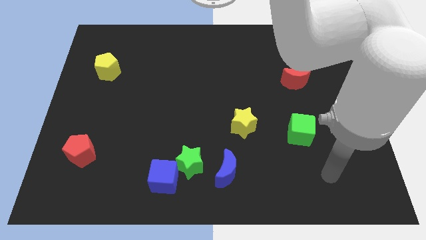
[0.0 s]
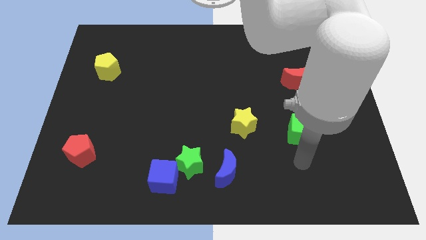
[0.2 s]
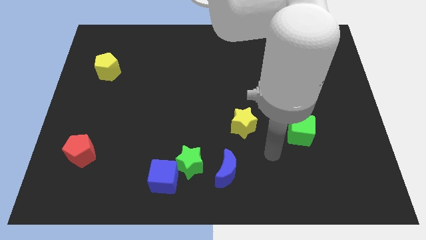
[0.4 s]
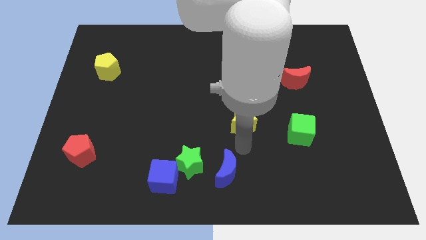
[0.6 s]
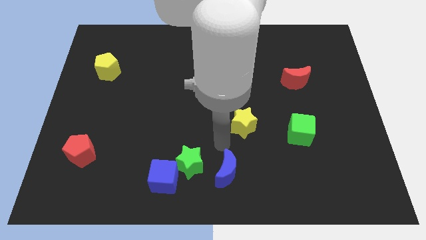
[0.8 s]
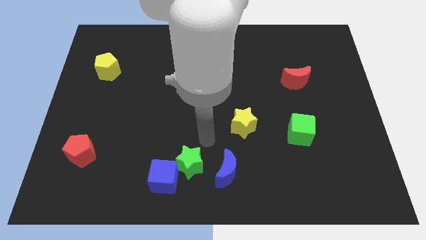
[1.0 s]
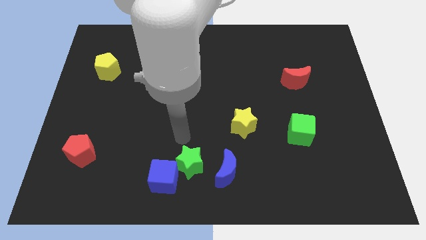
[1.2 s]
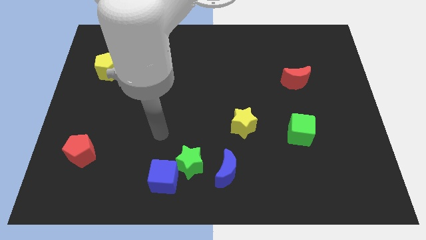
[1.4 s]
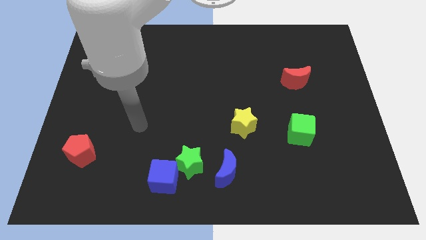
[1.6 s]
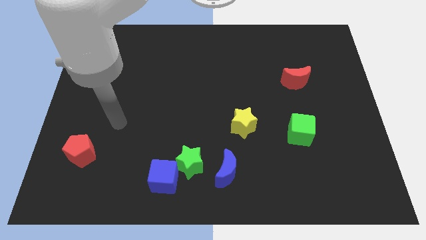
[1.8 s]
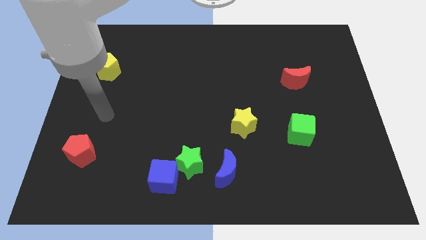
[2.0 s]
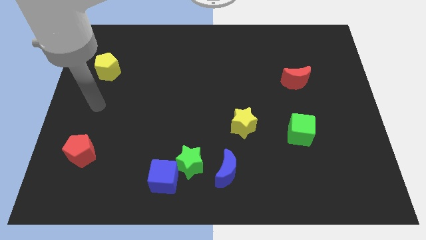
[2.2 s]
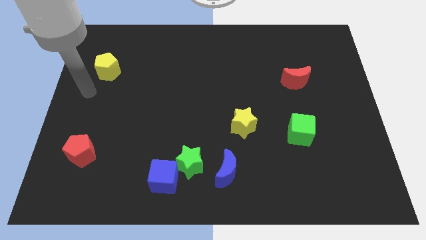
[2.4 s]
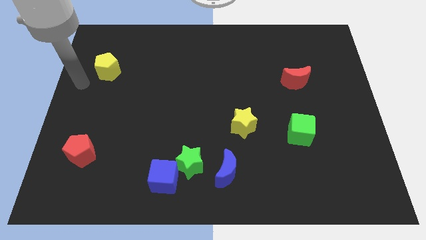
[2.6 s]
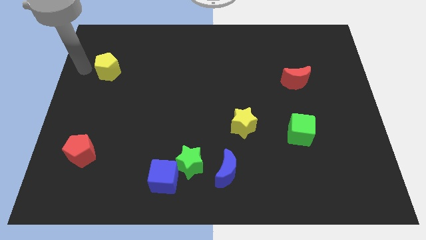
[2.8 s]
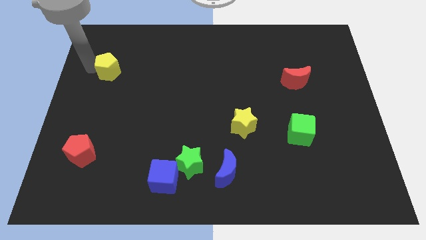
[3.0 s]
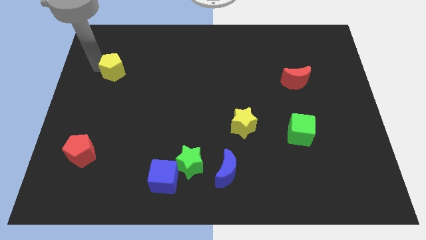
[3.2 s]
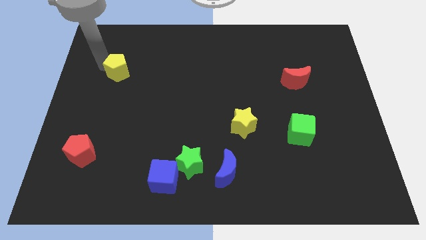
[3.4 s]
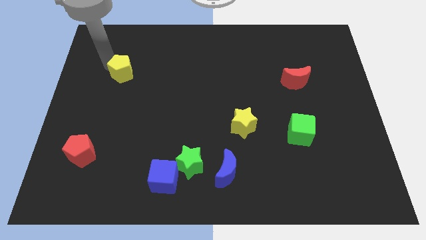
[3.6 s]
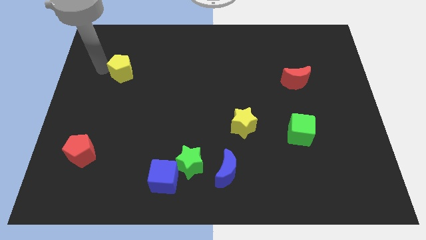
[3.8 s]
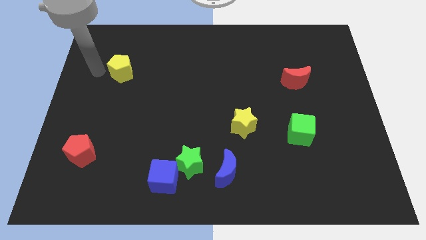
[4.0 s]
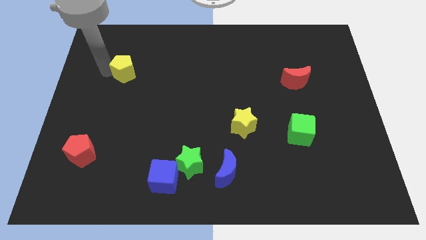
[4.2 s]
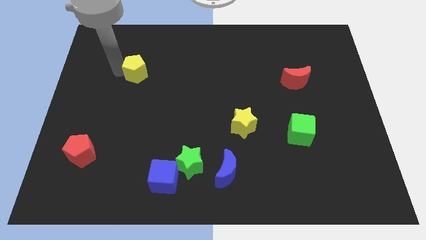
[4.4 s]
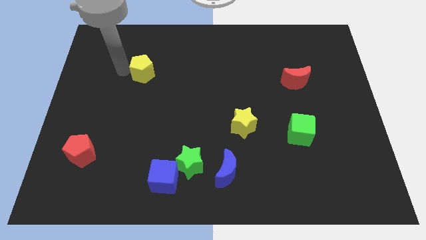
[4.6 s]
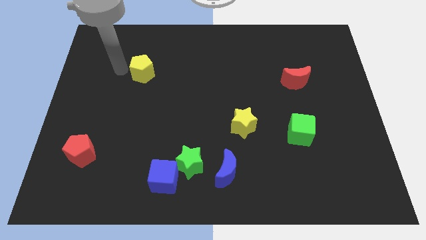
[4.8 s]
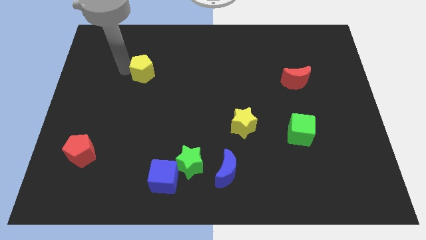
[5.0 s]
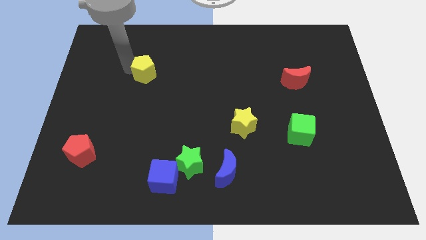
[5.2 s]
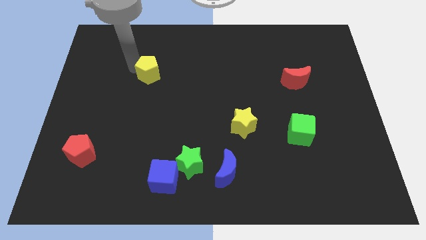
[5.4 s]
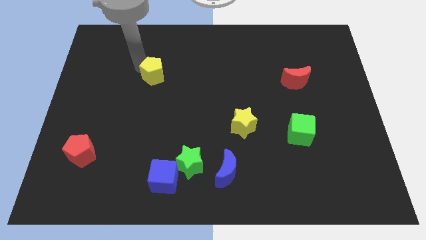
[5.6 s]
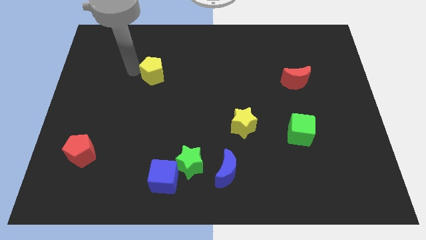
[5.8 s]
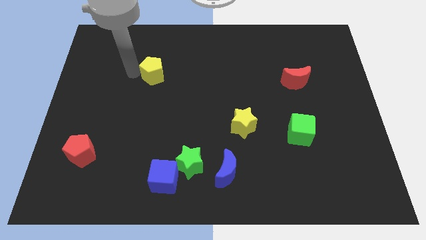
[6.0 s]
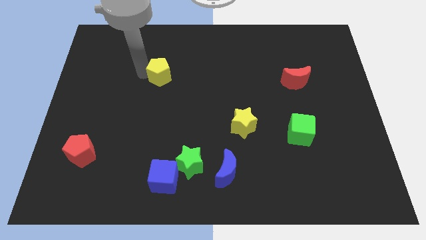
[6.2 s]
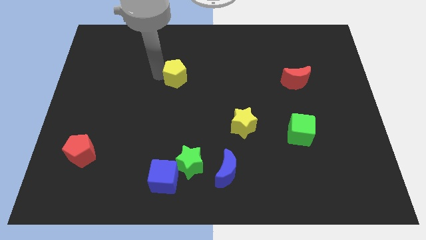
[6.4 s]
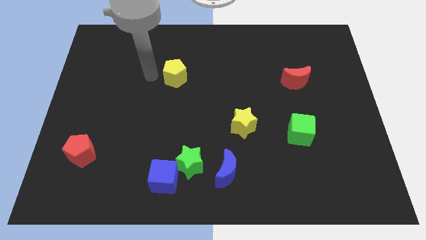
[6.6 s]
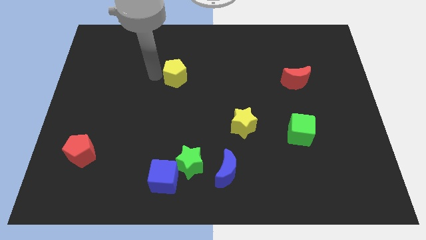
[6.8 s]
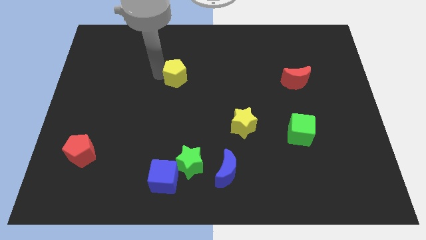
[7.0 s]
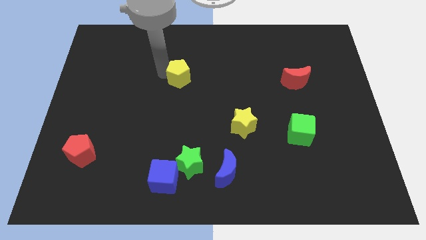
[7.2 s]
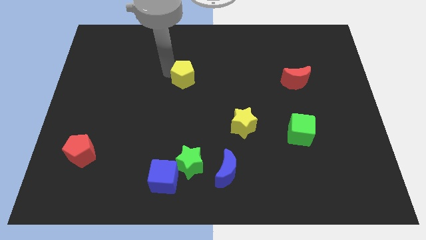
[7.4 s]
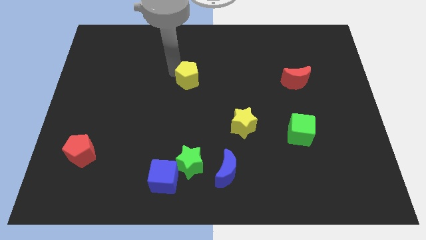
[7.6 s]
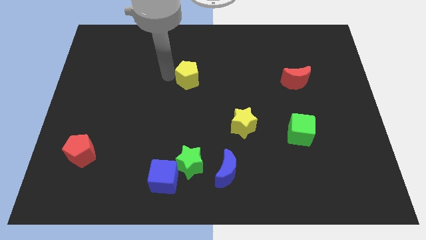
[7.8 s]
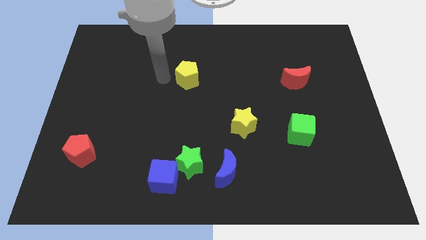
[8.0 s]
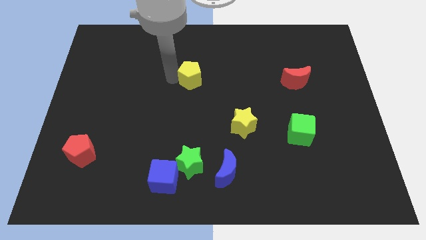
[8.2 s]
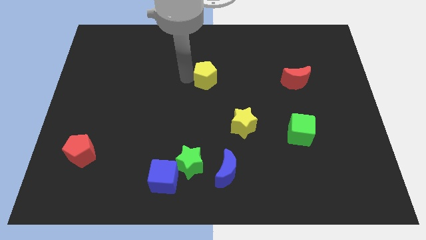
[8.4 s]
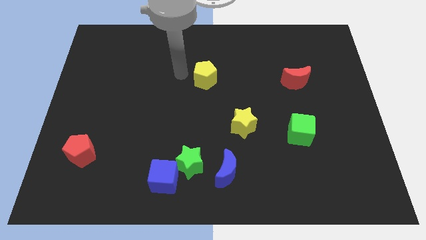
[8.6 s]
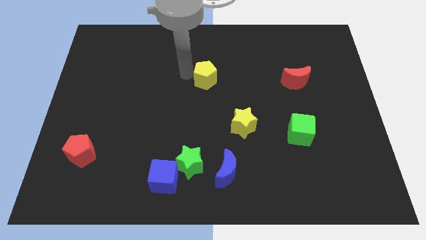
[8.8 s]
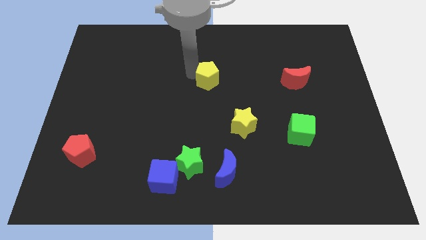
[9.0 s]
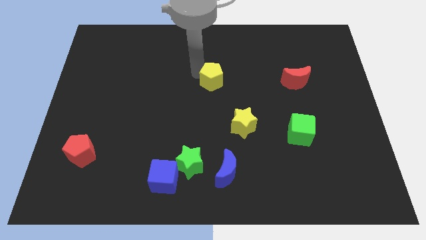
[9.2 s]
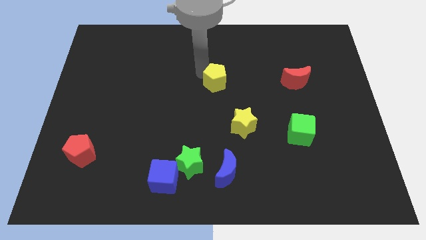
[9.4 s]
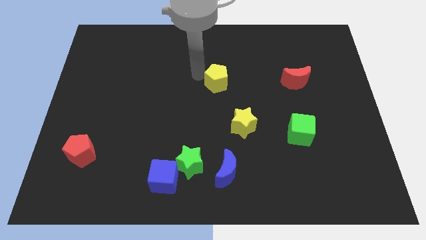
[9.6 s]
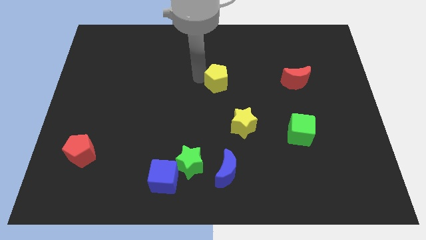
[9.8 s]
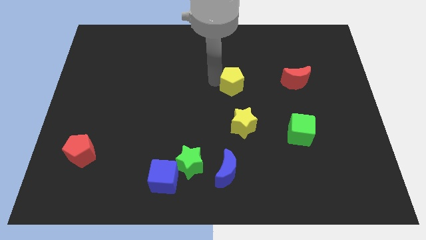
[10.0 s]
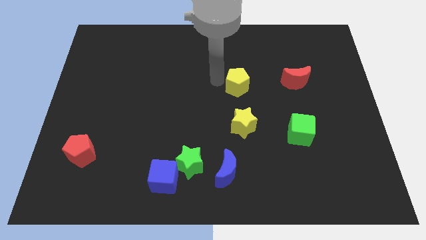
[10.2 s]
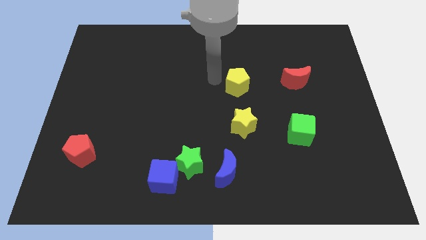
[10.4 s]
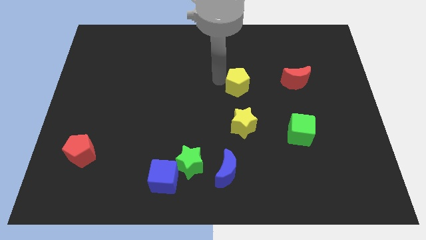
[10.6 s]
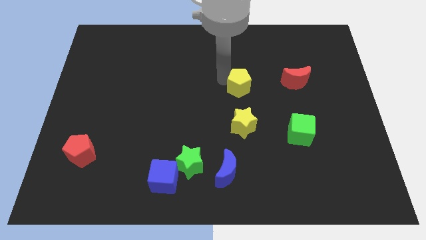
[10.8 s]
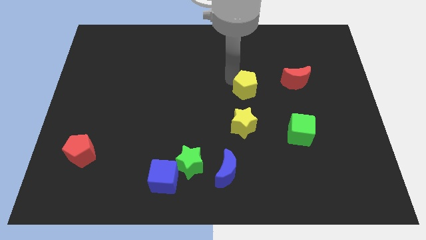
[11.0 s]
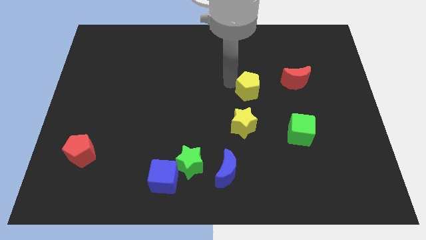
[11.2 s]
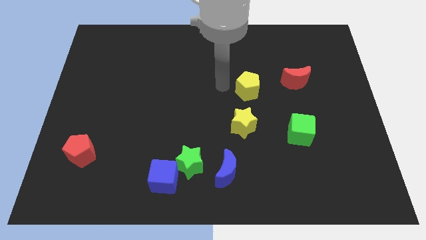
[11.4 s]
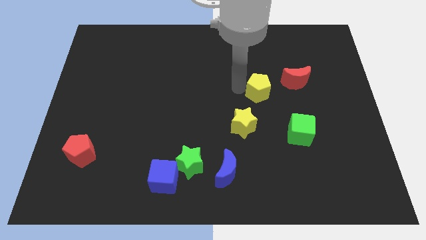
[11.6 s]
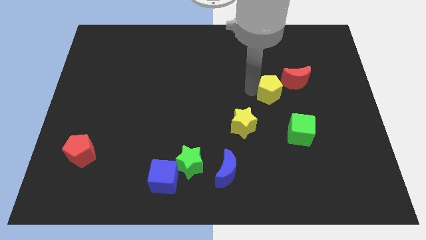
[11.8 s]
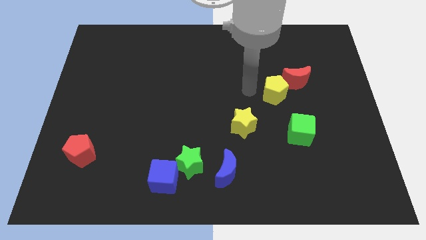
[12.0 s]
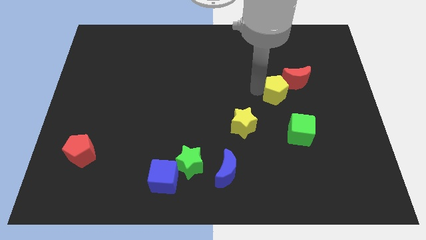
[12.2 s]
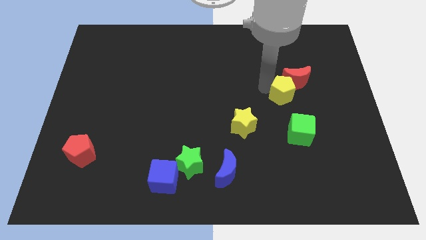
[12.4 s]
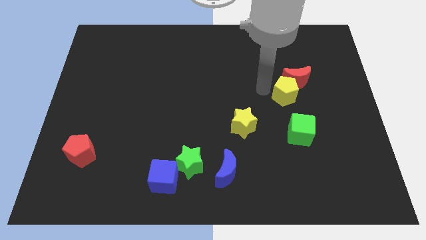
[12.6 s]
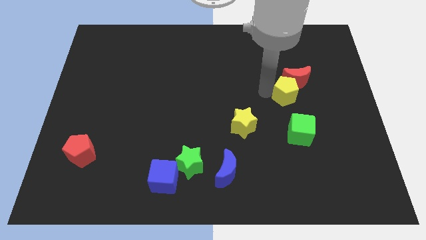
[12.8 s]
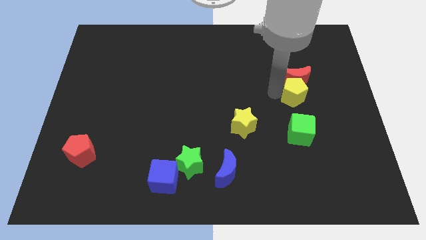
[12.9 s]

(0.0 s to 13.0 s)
move the yellow pentagon to the bottom right of the red moon
